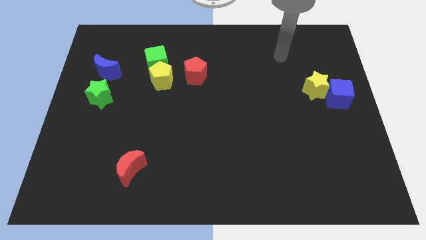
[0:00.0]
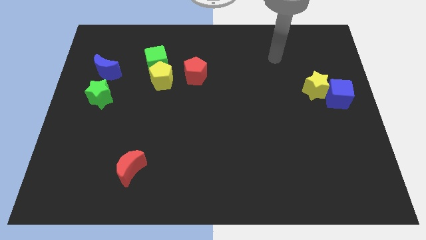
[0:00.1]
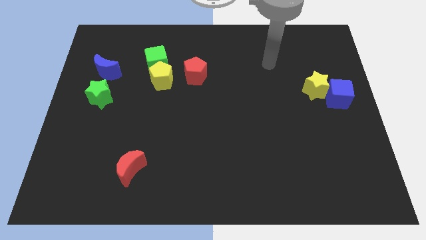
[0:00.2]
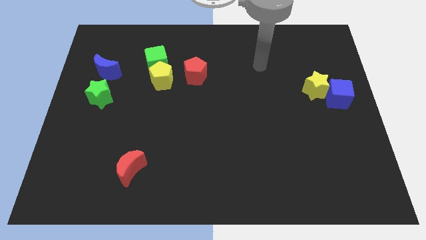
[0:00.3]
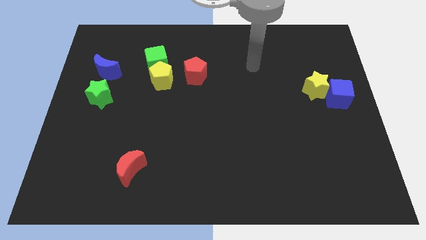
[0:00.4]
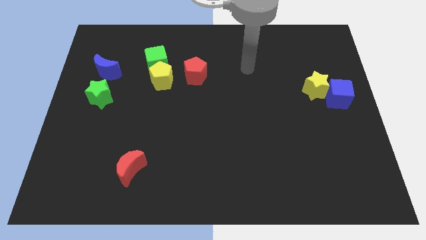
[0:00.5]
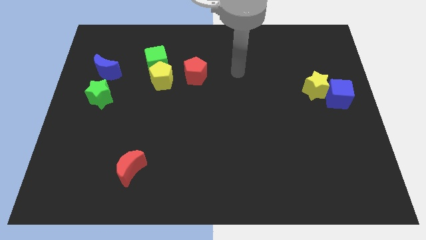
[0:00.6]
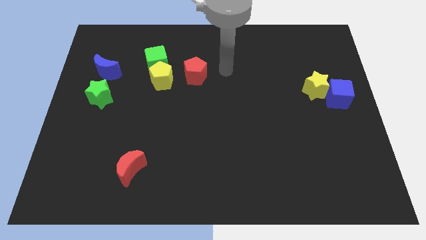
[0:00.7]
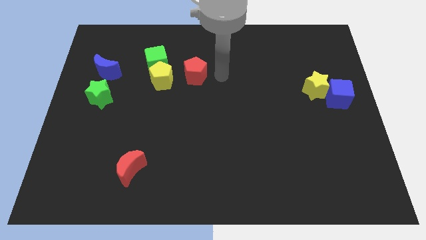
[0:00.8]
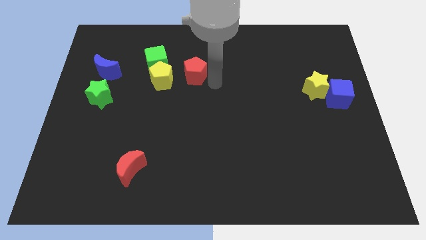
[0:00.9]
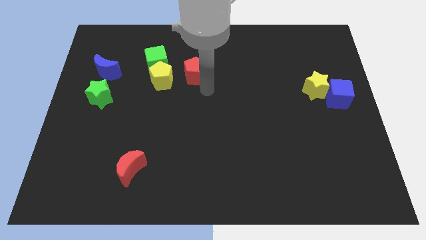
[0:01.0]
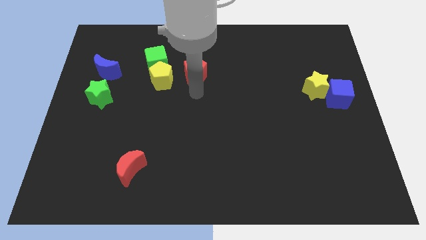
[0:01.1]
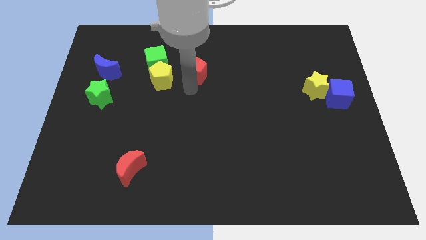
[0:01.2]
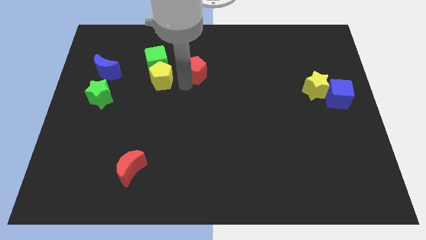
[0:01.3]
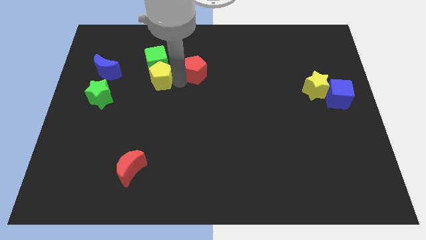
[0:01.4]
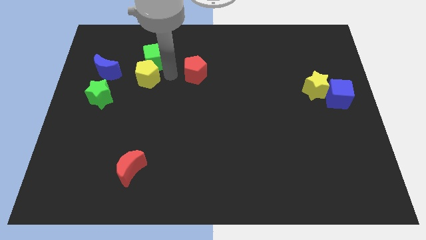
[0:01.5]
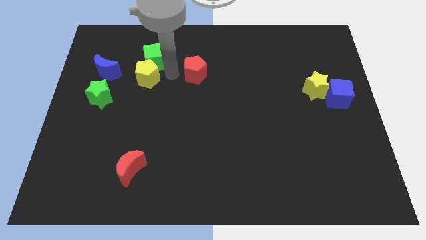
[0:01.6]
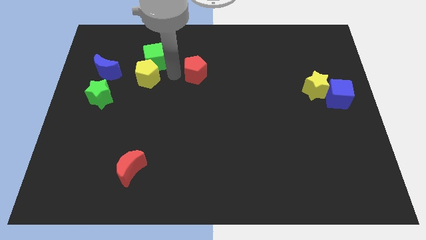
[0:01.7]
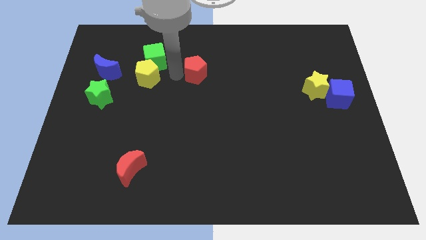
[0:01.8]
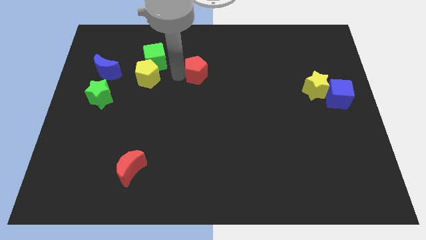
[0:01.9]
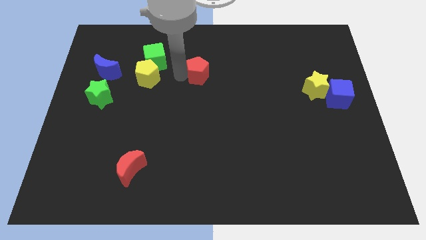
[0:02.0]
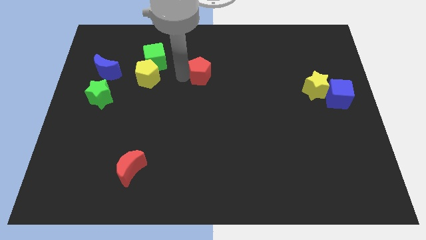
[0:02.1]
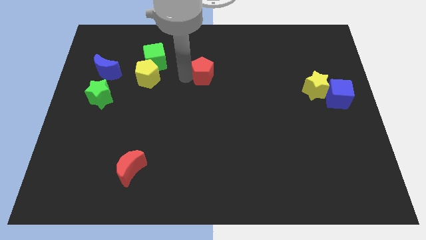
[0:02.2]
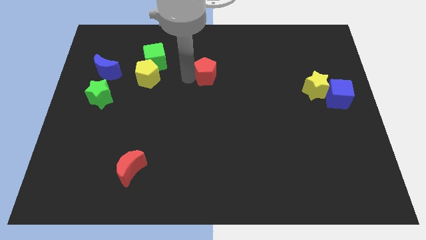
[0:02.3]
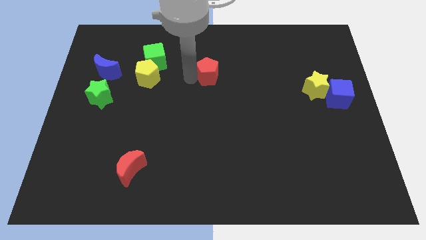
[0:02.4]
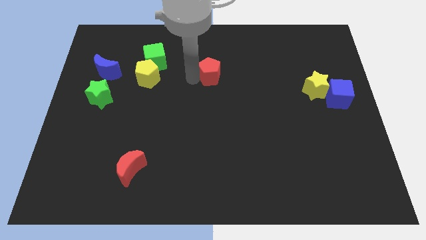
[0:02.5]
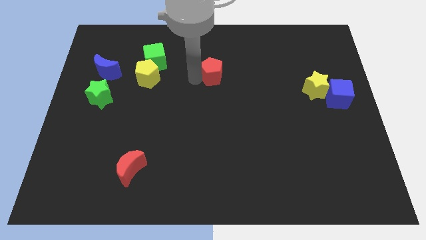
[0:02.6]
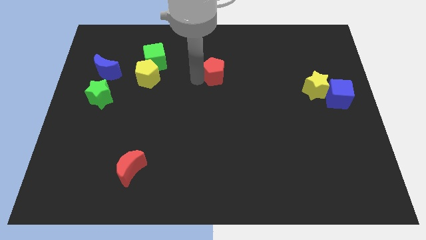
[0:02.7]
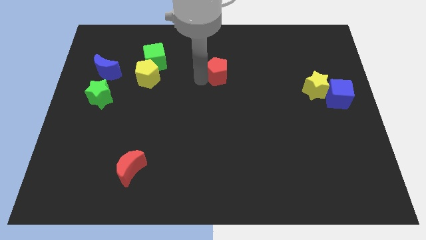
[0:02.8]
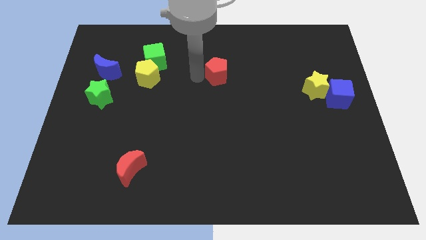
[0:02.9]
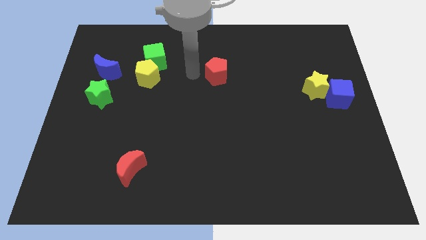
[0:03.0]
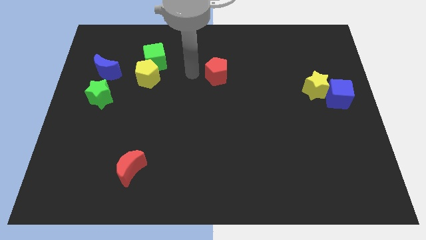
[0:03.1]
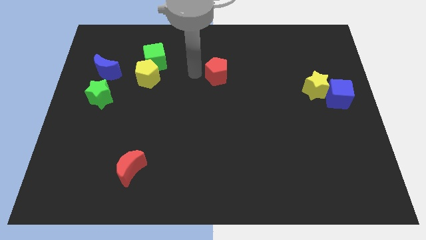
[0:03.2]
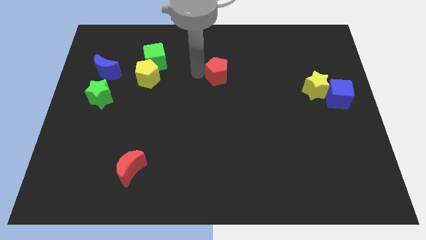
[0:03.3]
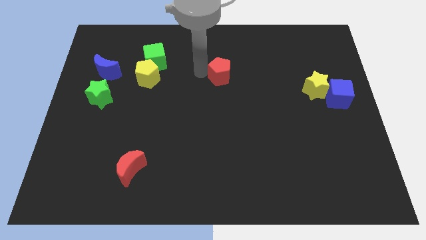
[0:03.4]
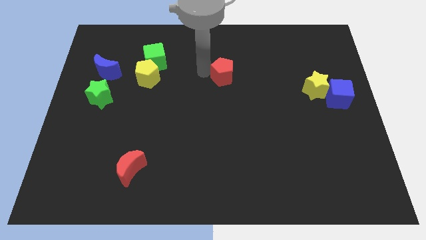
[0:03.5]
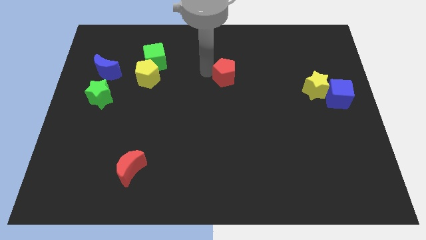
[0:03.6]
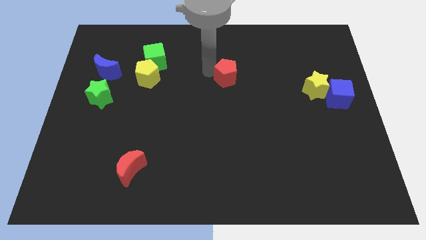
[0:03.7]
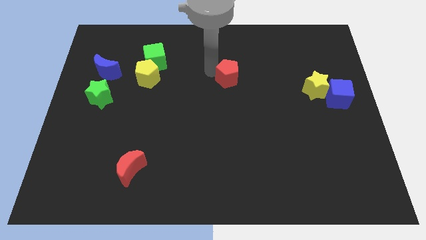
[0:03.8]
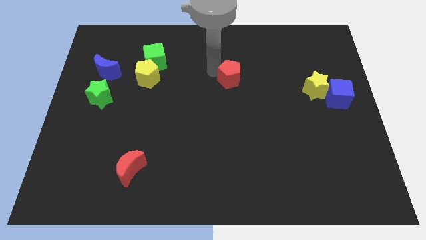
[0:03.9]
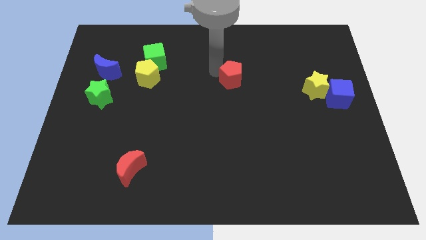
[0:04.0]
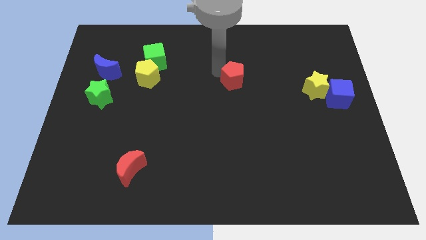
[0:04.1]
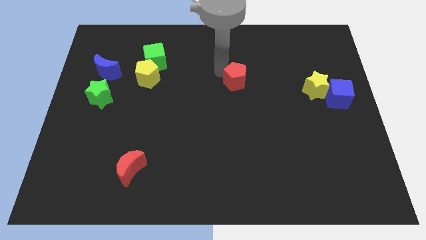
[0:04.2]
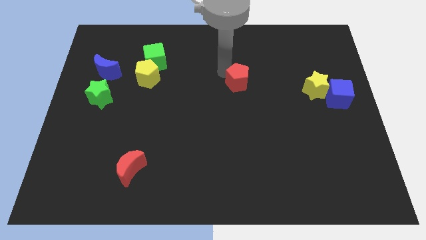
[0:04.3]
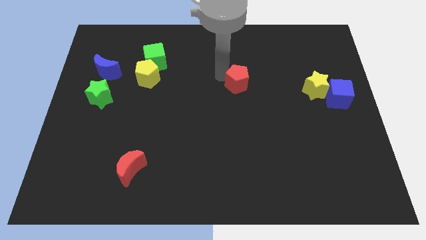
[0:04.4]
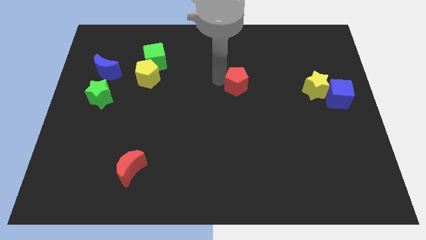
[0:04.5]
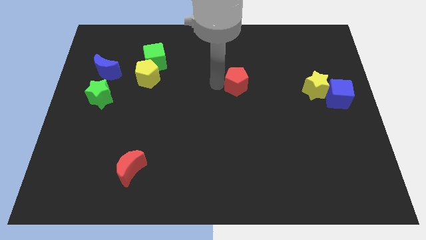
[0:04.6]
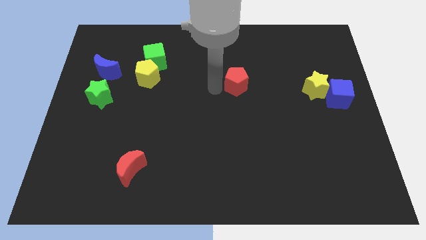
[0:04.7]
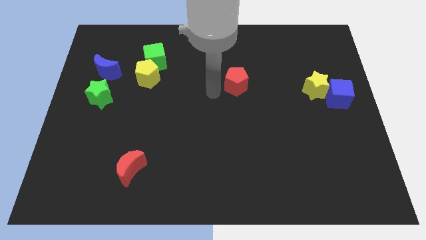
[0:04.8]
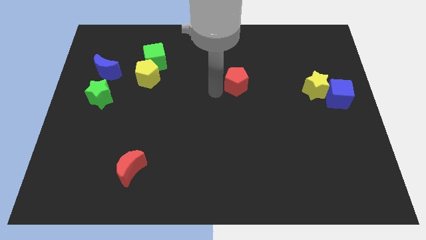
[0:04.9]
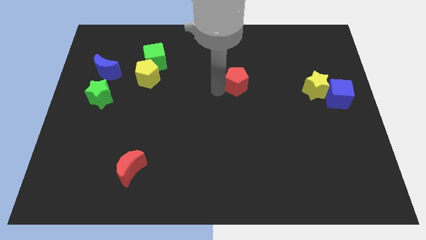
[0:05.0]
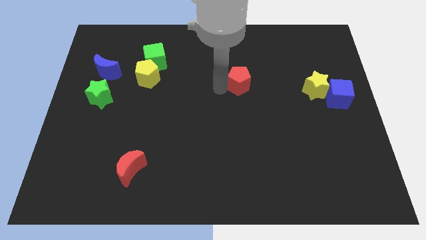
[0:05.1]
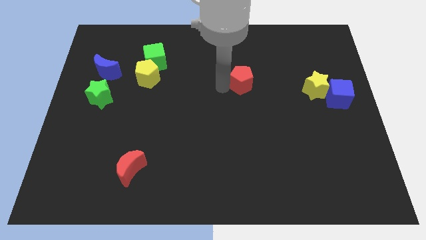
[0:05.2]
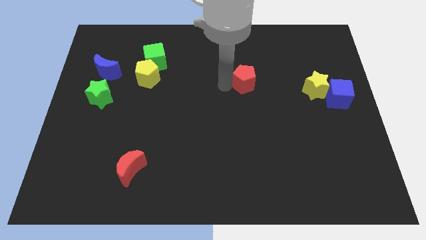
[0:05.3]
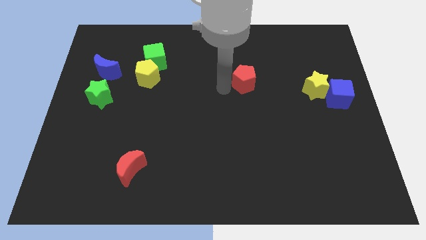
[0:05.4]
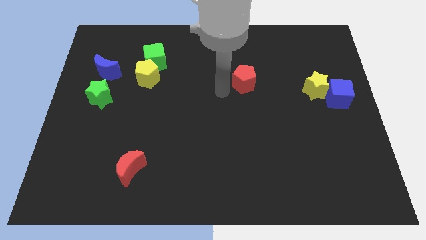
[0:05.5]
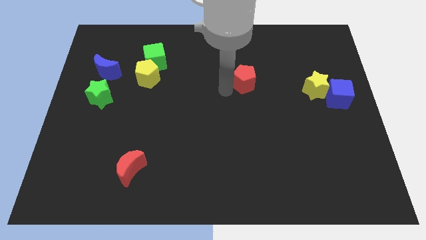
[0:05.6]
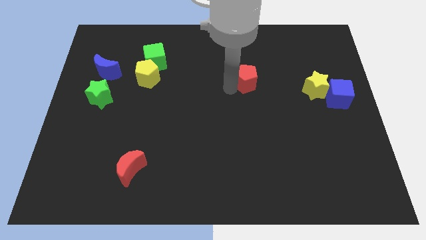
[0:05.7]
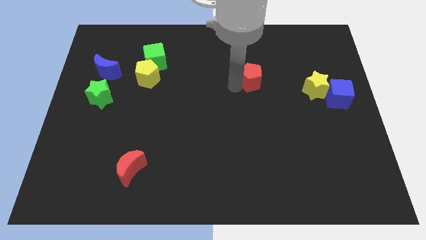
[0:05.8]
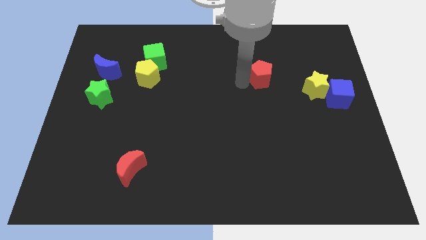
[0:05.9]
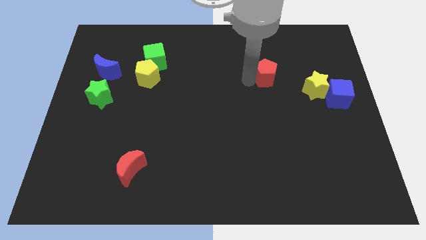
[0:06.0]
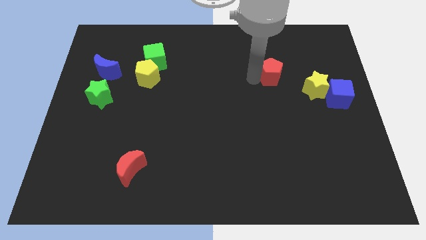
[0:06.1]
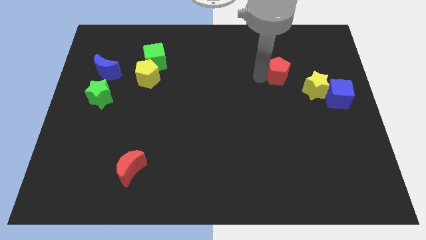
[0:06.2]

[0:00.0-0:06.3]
move the red pentagon right

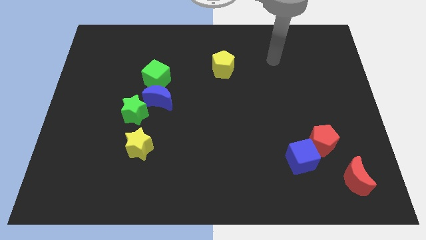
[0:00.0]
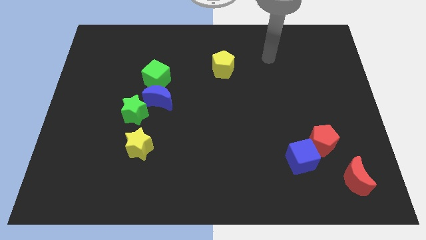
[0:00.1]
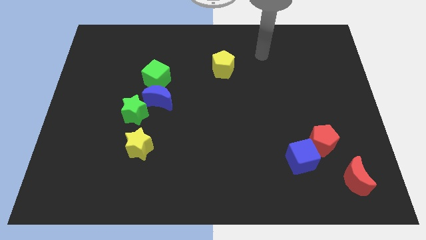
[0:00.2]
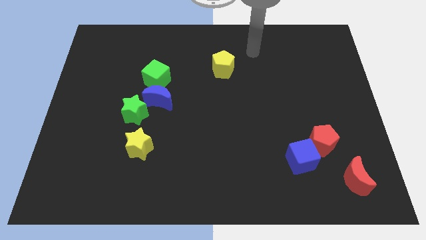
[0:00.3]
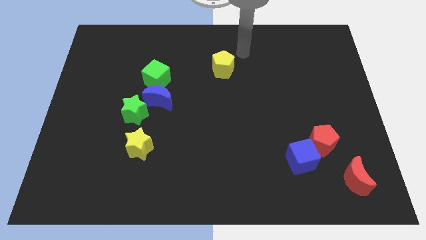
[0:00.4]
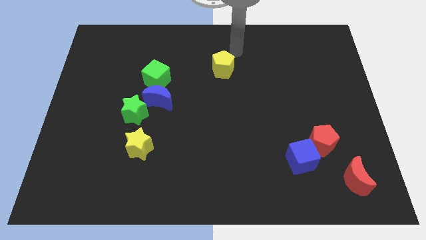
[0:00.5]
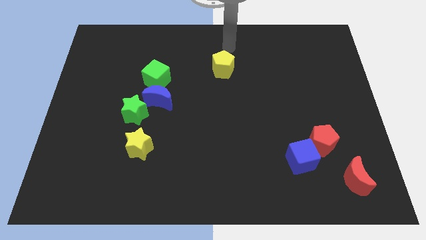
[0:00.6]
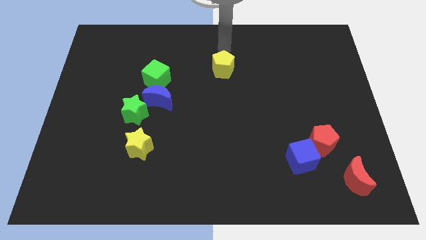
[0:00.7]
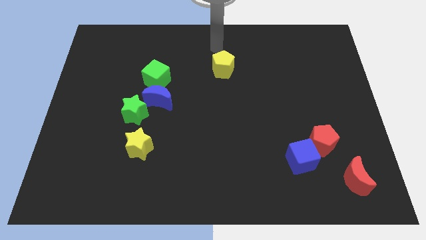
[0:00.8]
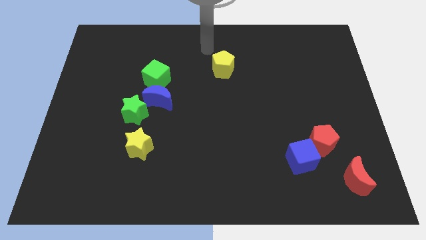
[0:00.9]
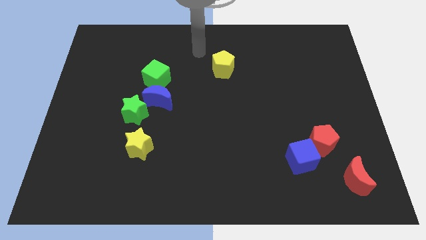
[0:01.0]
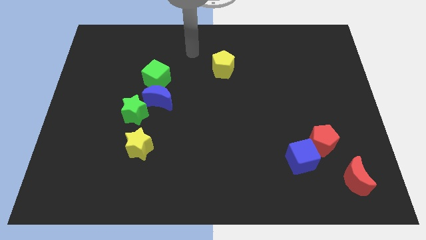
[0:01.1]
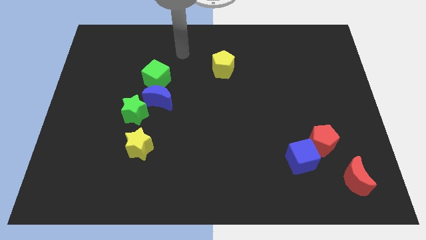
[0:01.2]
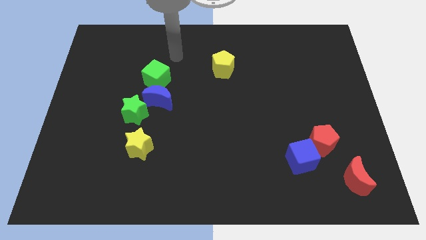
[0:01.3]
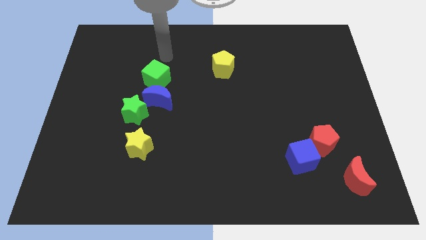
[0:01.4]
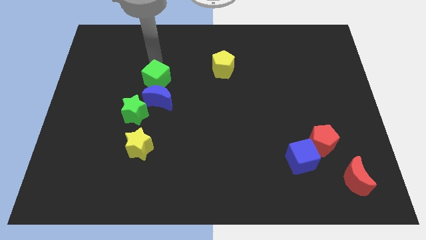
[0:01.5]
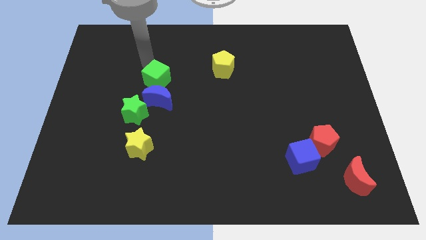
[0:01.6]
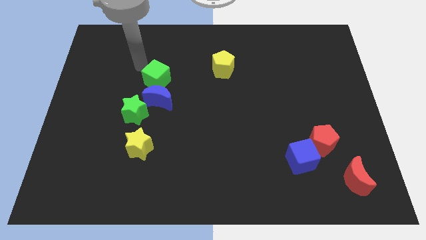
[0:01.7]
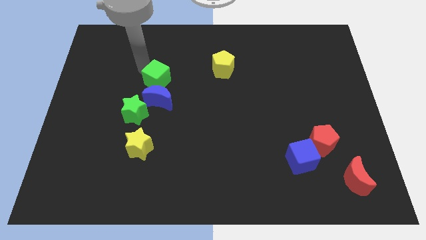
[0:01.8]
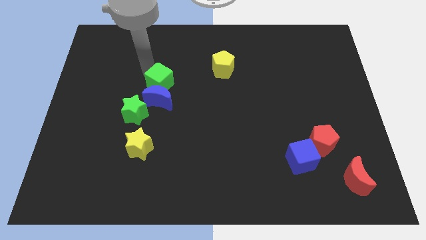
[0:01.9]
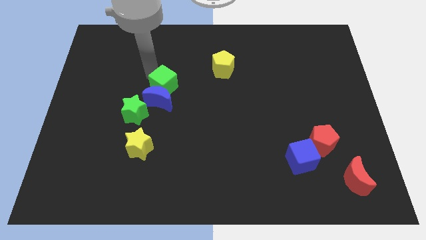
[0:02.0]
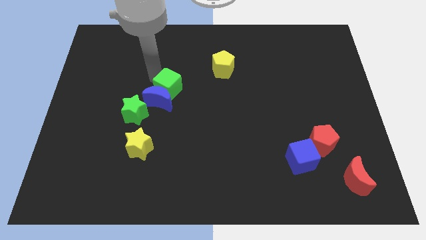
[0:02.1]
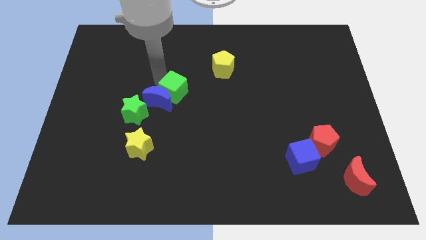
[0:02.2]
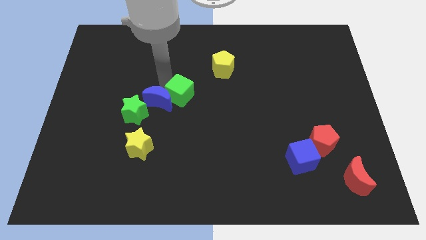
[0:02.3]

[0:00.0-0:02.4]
slide the green cube a bit downwards and to the right
